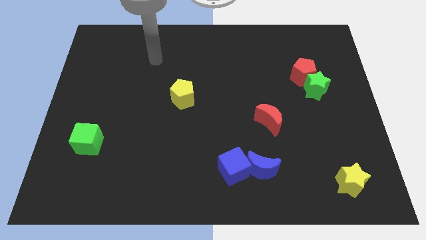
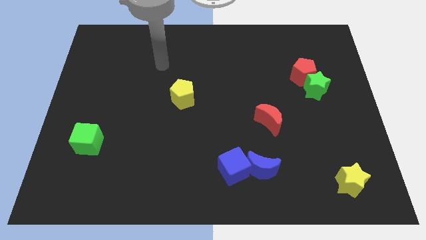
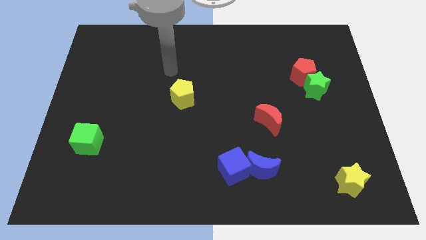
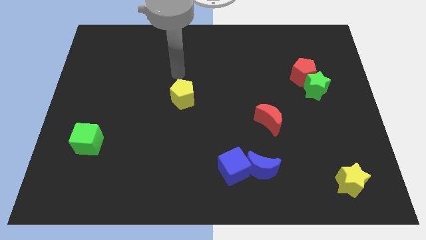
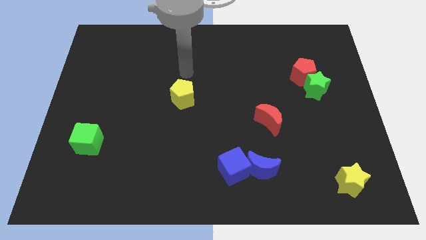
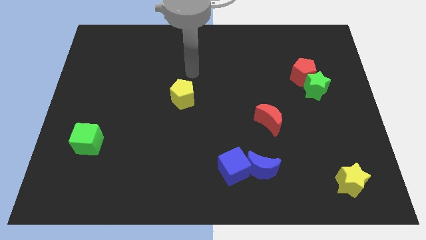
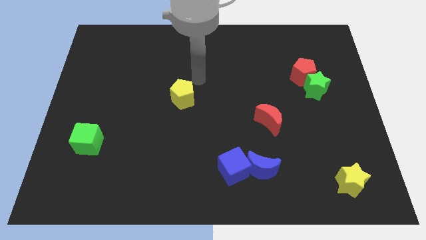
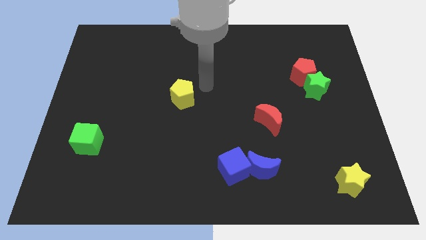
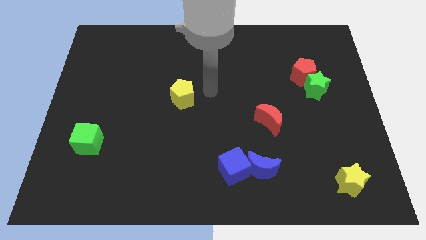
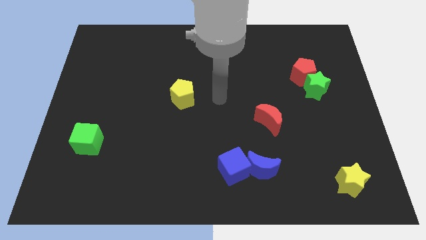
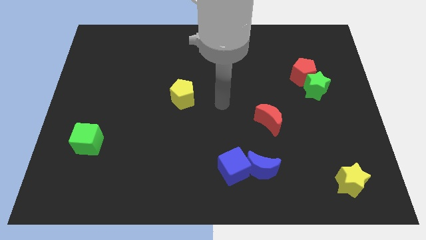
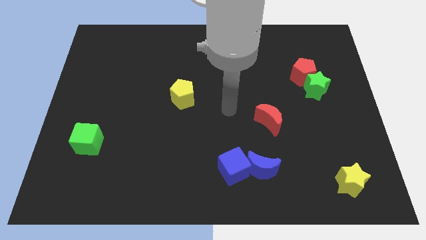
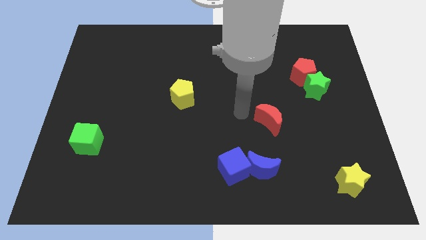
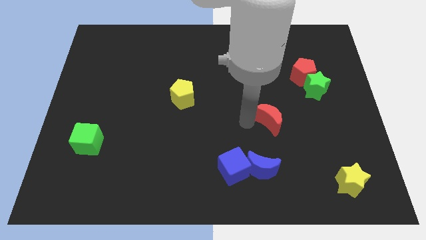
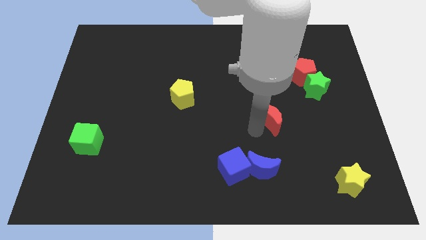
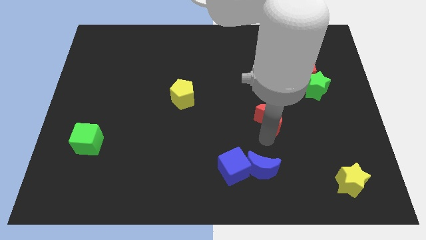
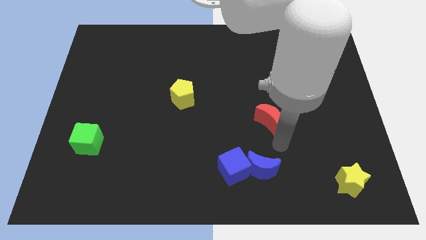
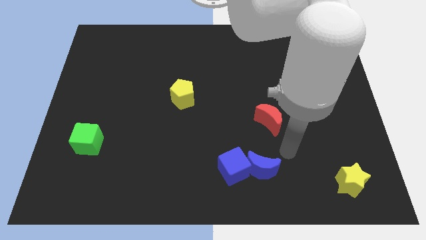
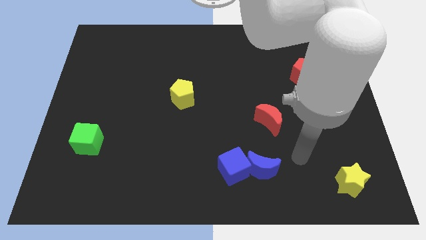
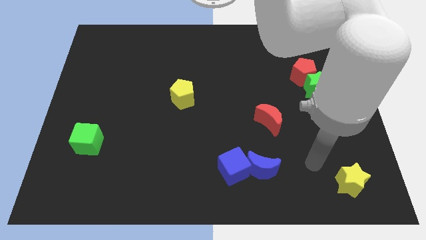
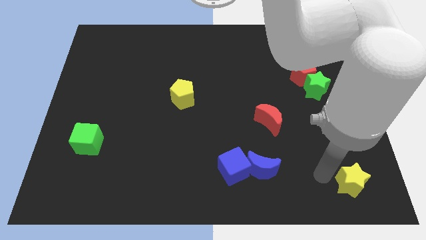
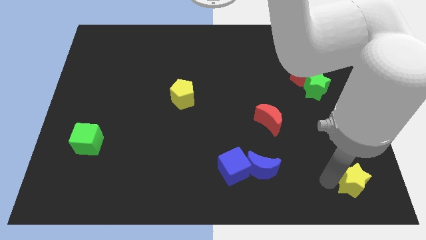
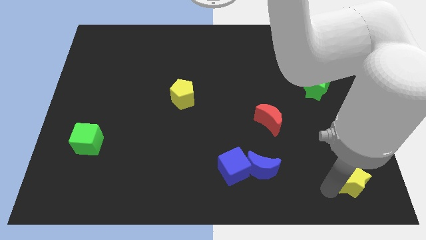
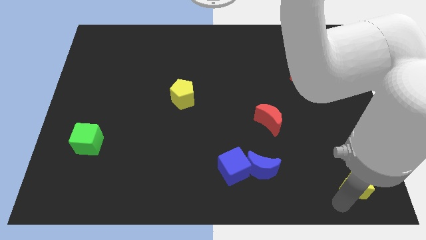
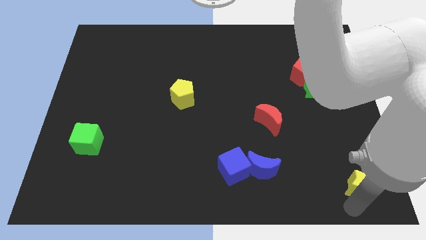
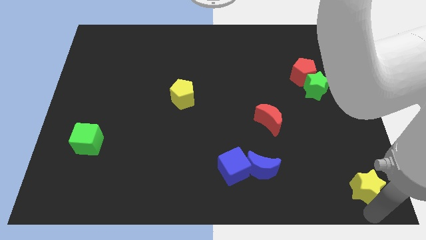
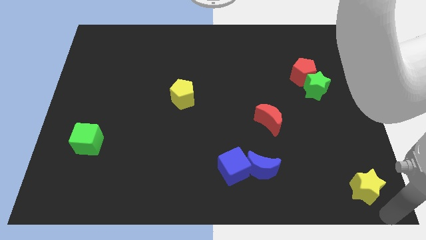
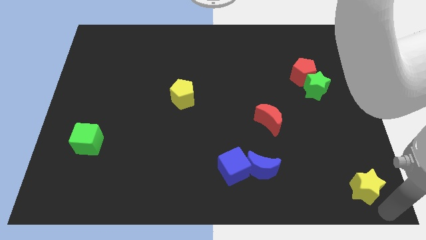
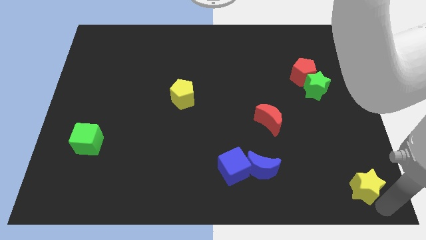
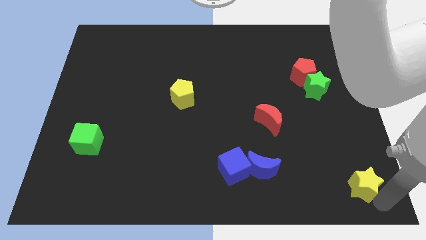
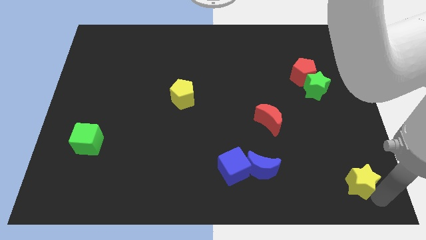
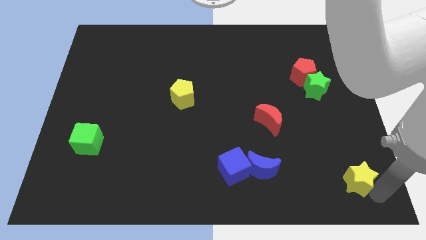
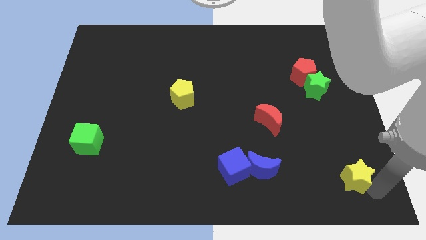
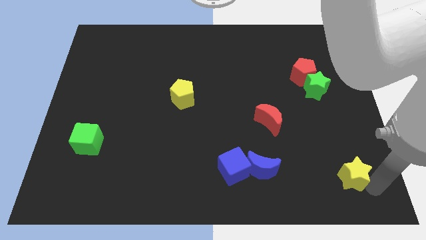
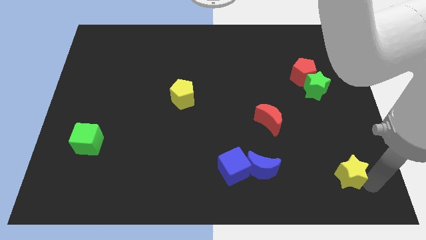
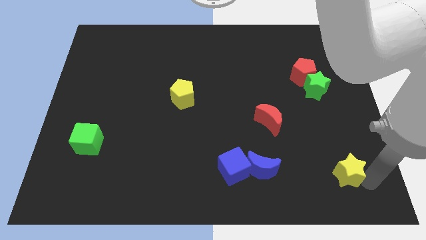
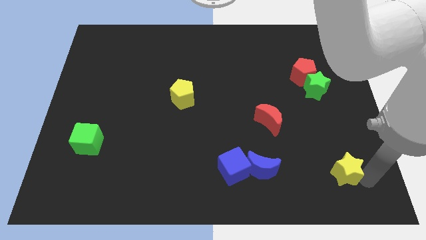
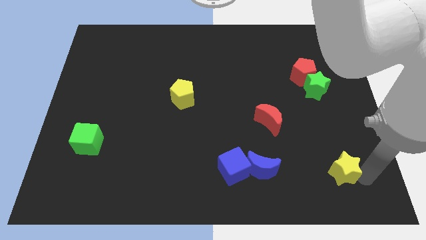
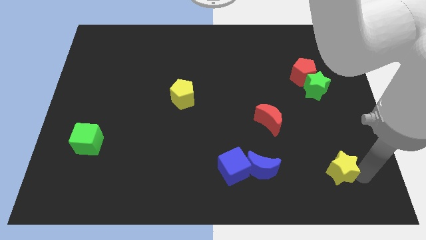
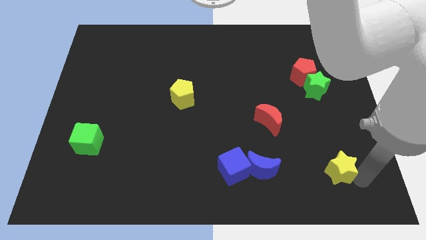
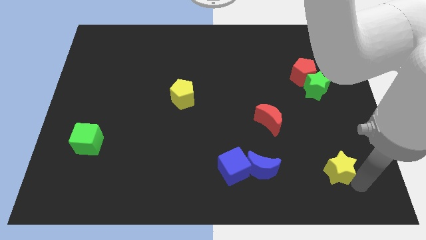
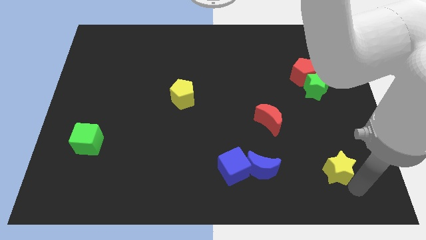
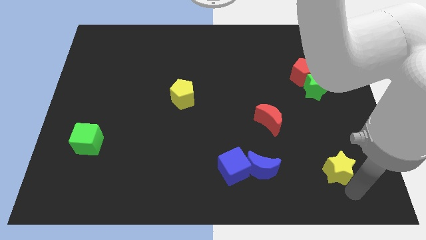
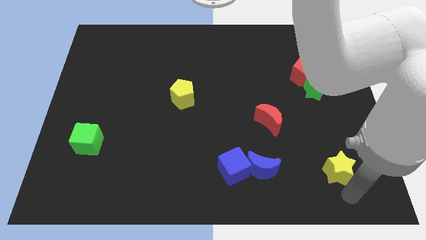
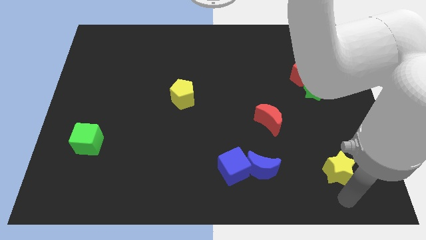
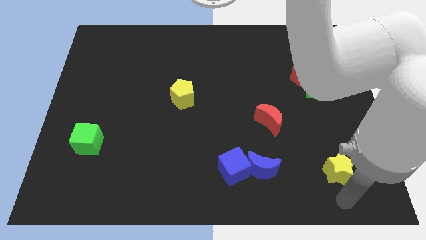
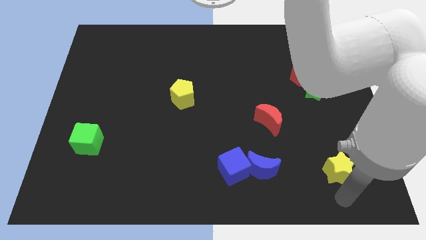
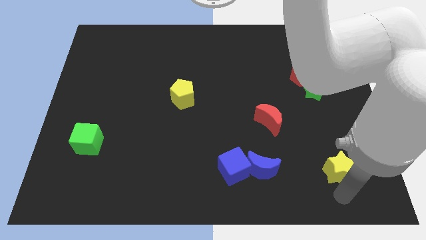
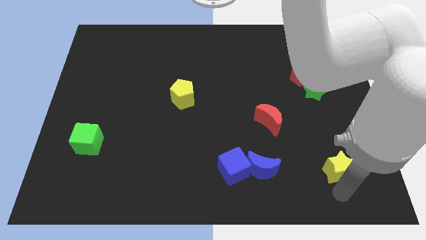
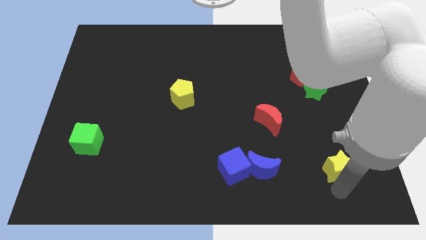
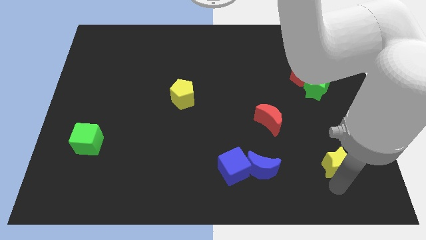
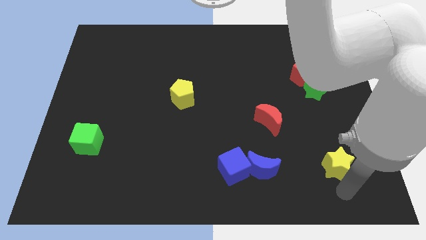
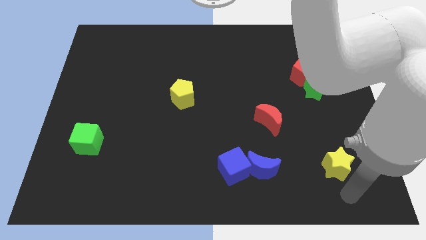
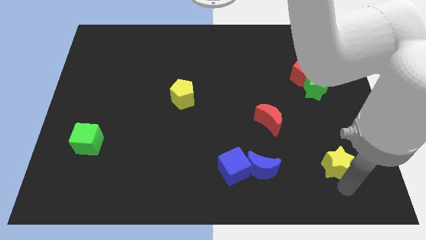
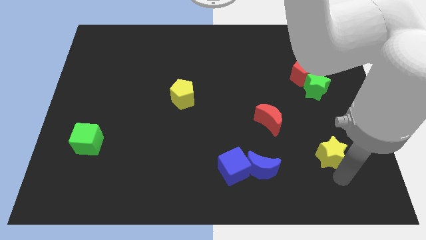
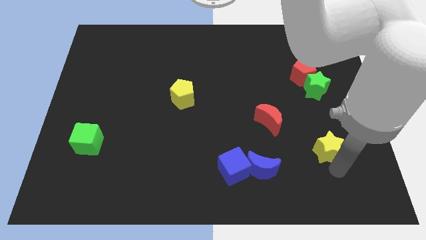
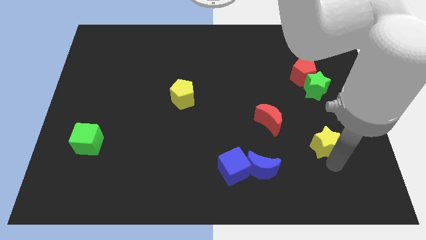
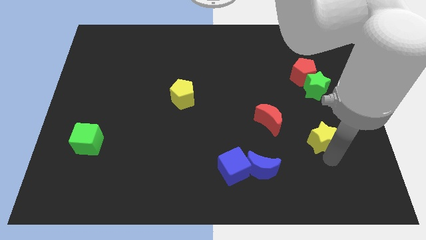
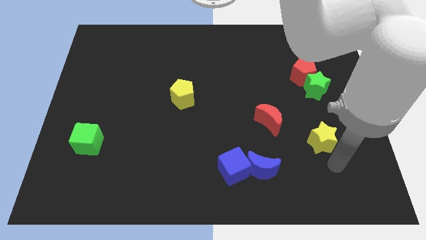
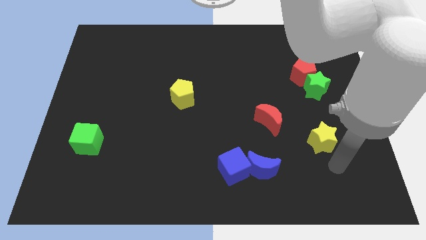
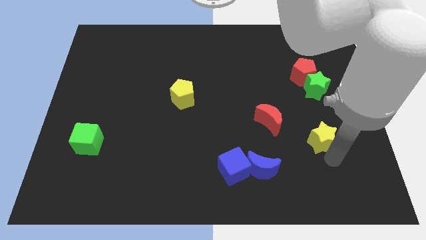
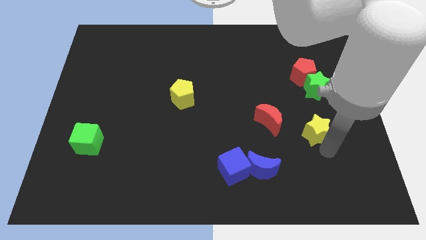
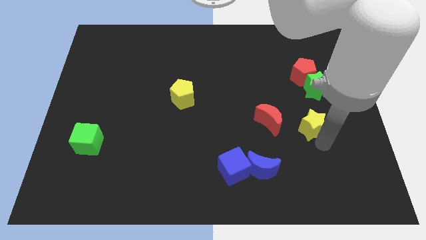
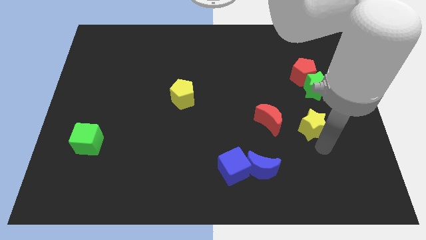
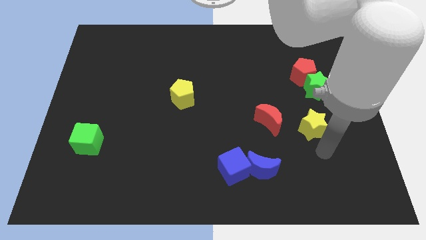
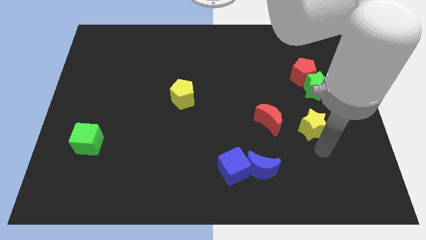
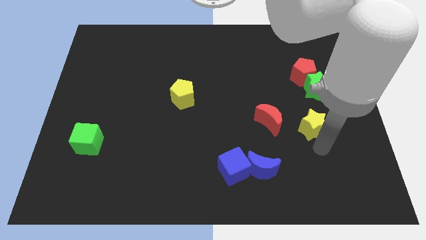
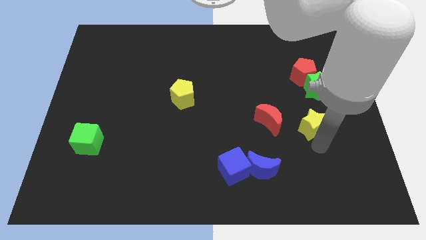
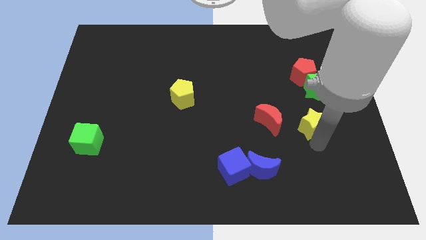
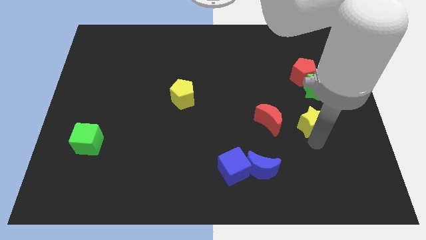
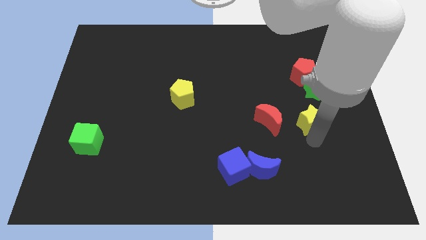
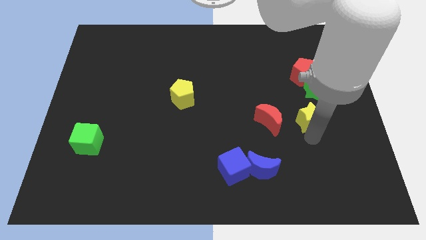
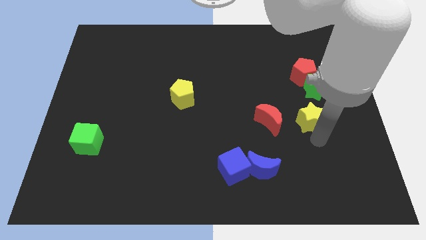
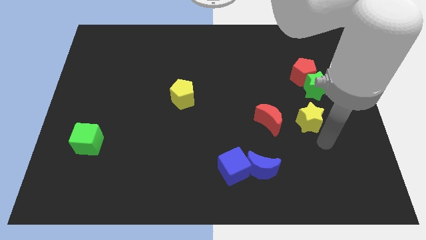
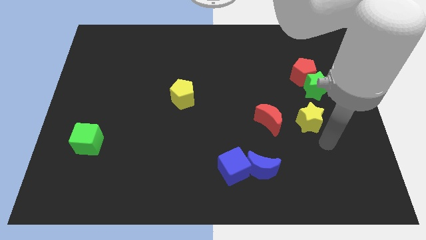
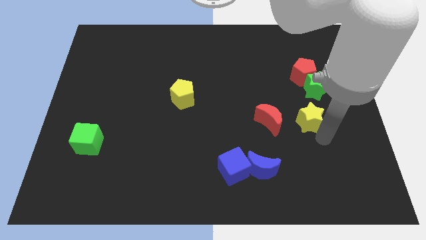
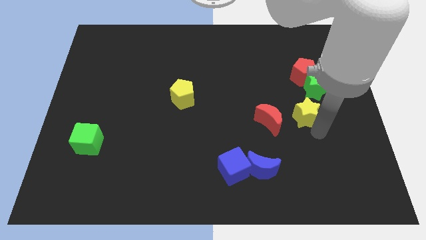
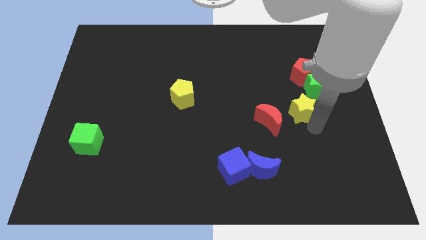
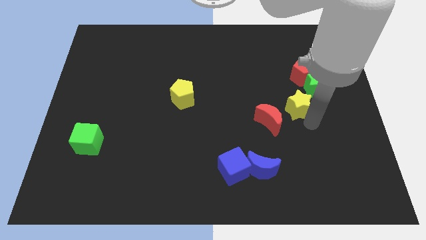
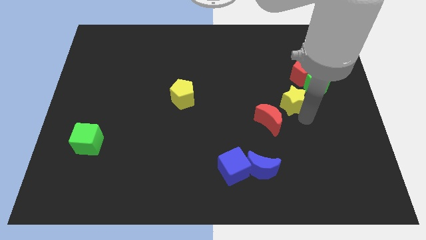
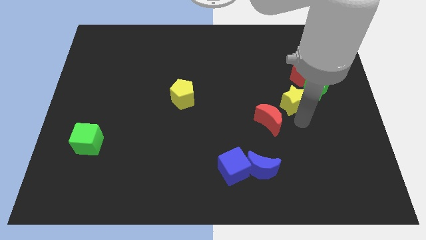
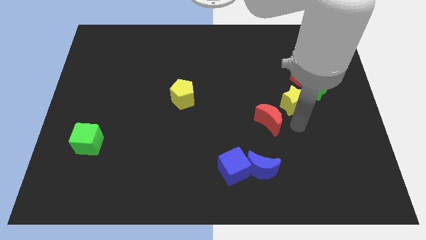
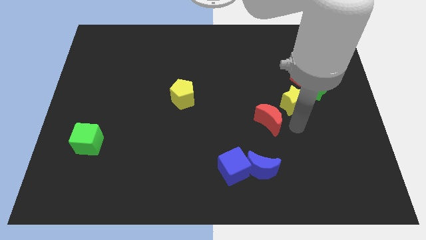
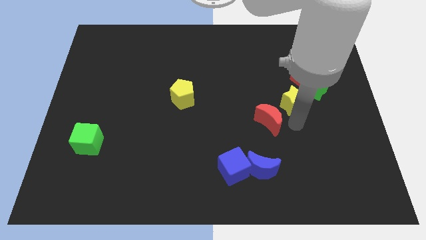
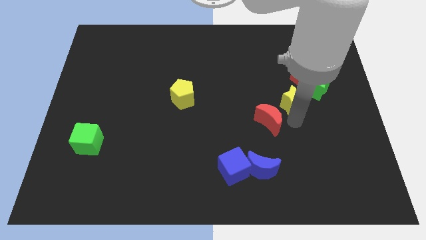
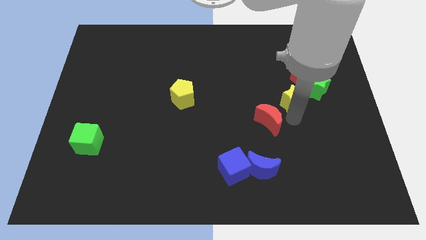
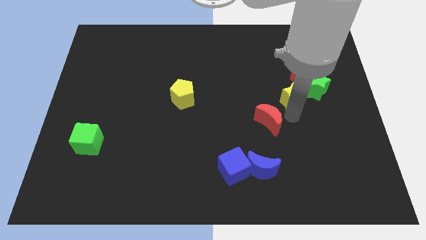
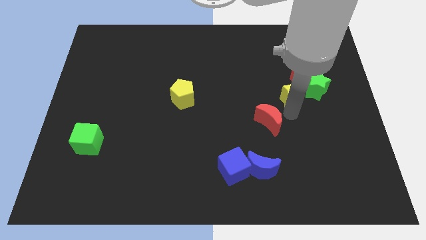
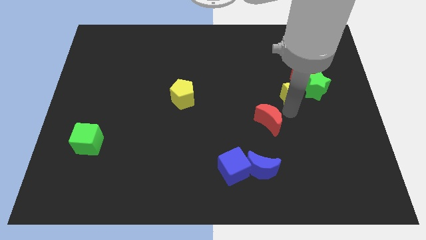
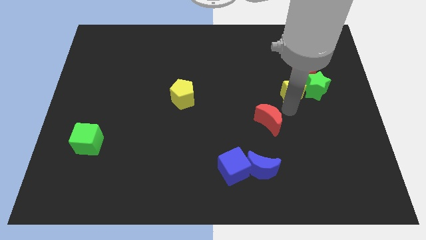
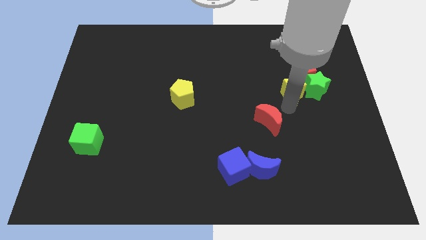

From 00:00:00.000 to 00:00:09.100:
slide the yellow star to the top left of the green star
